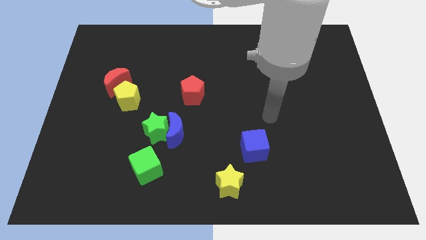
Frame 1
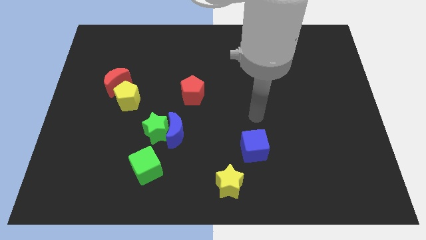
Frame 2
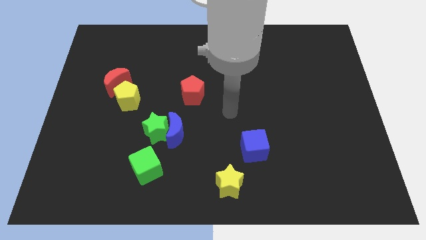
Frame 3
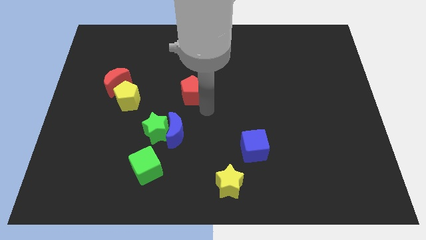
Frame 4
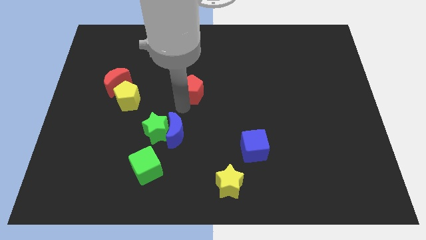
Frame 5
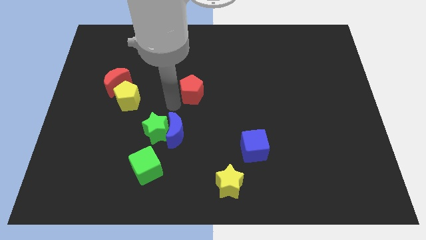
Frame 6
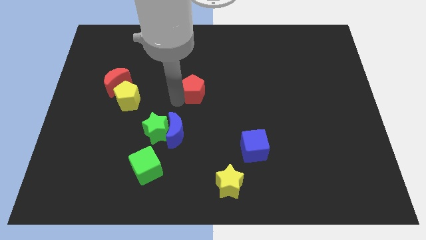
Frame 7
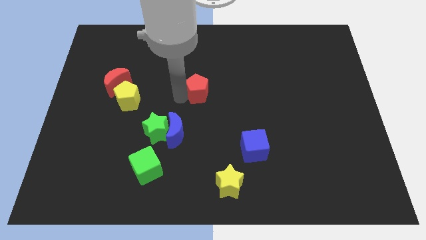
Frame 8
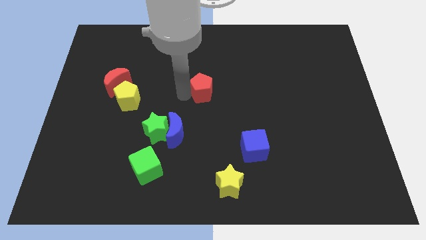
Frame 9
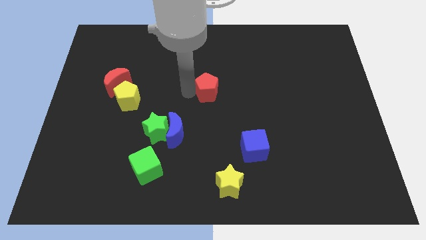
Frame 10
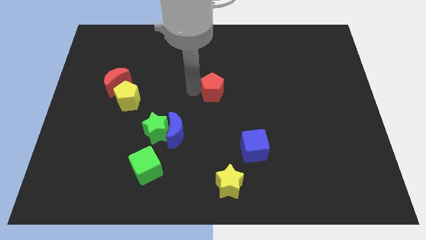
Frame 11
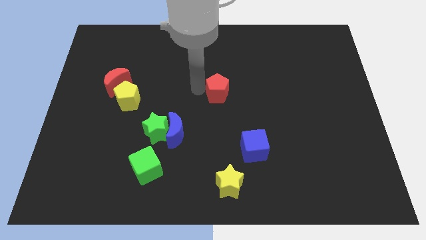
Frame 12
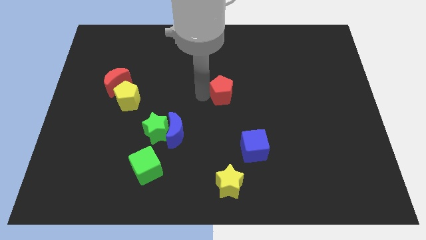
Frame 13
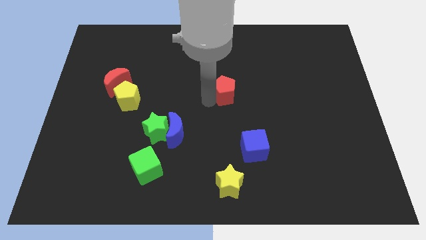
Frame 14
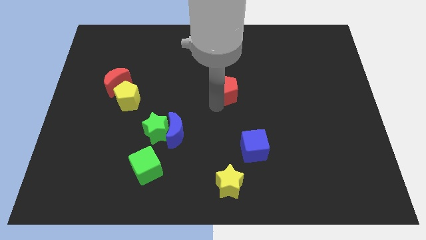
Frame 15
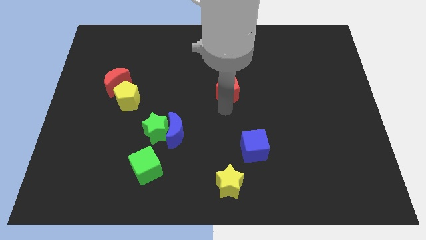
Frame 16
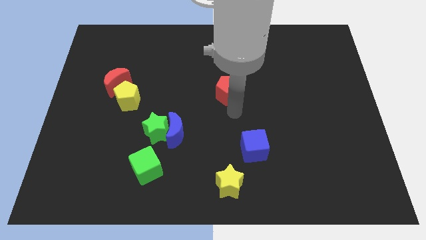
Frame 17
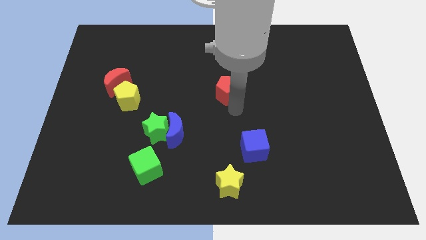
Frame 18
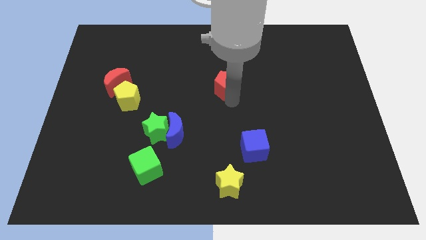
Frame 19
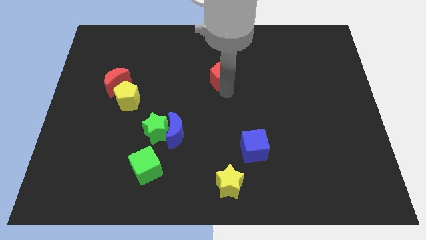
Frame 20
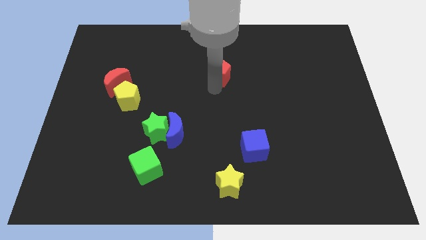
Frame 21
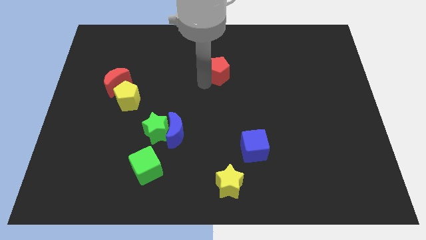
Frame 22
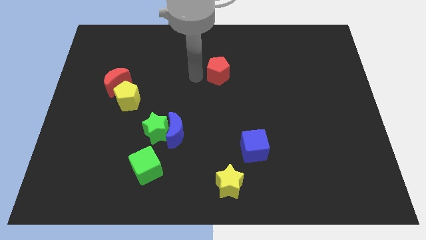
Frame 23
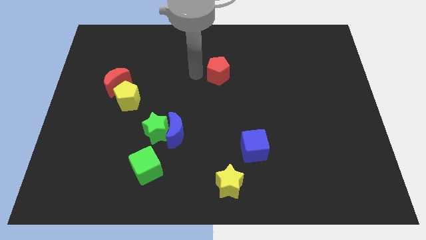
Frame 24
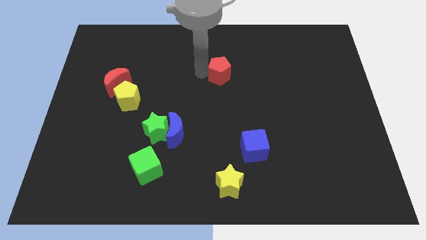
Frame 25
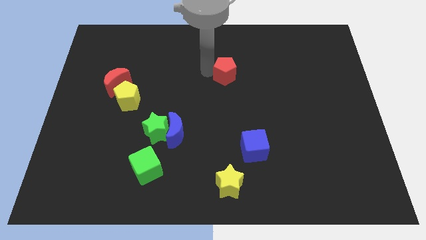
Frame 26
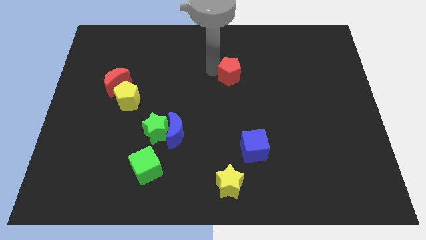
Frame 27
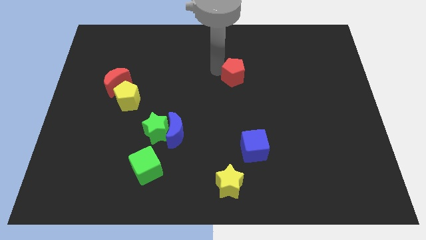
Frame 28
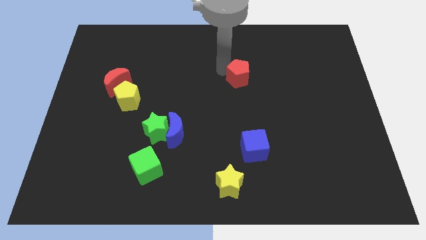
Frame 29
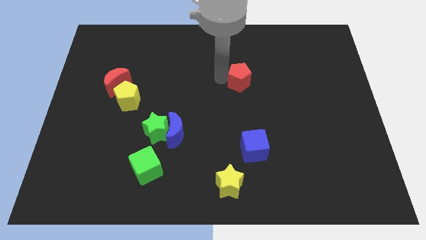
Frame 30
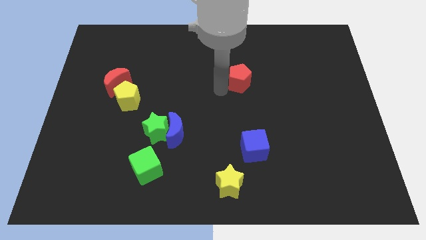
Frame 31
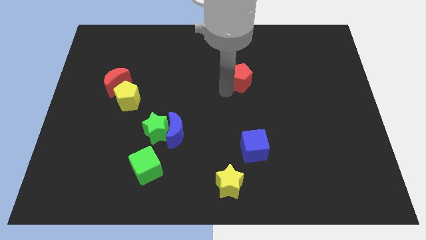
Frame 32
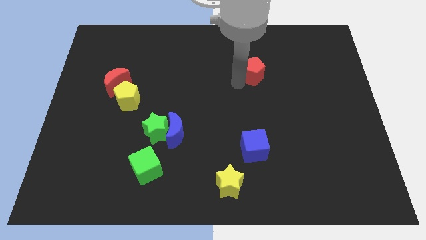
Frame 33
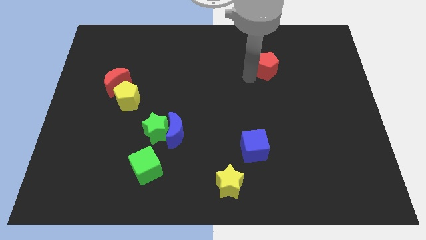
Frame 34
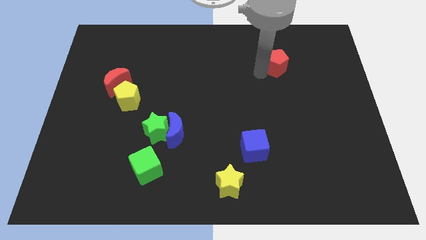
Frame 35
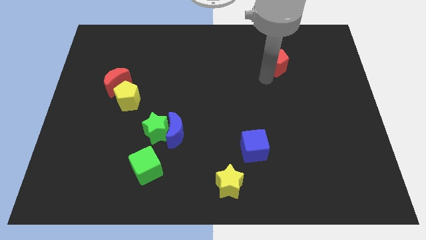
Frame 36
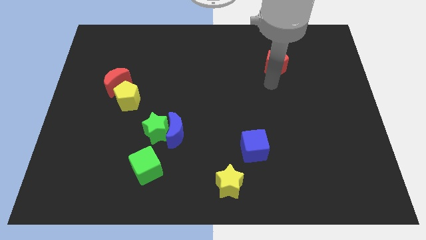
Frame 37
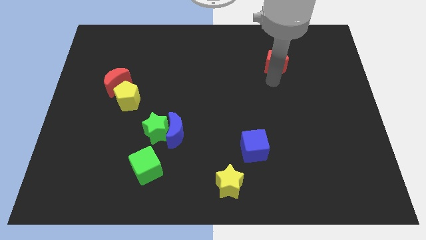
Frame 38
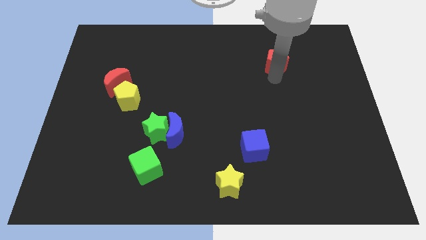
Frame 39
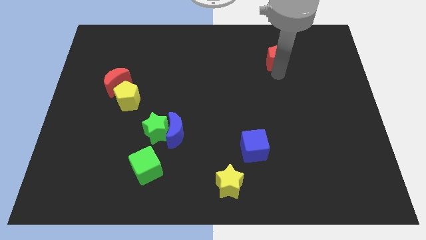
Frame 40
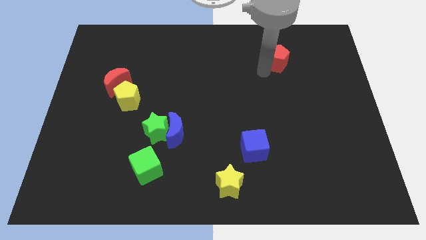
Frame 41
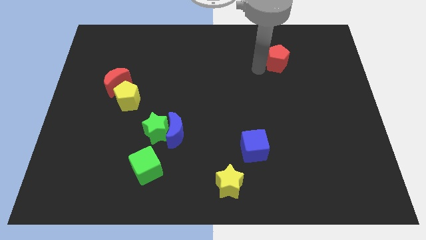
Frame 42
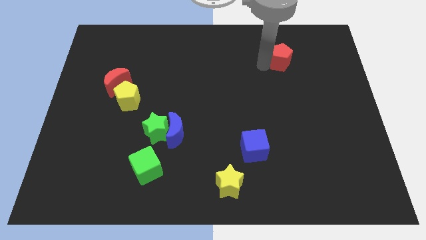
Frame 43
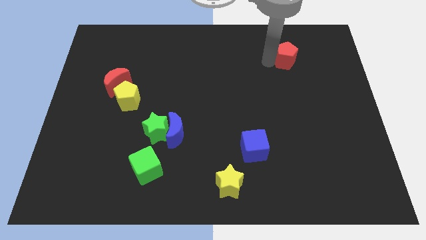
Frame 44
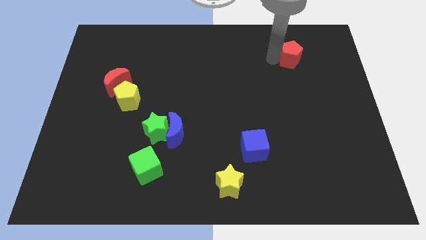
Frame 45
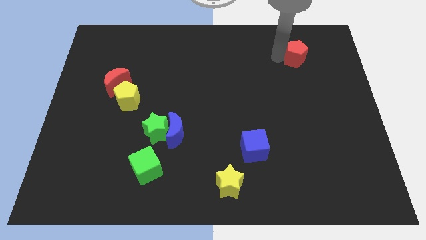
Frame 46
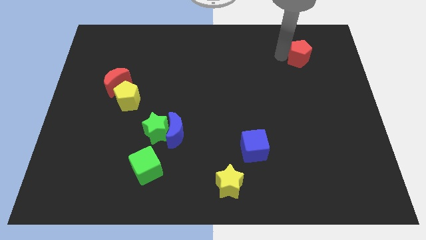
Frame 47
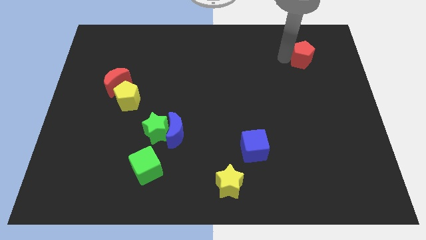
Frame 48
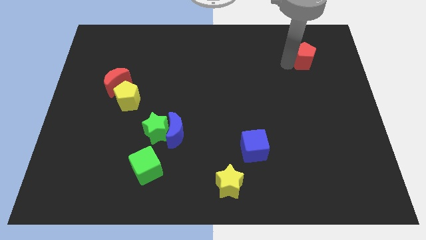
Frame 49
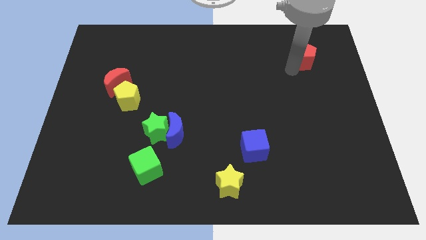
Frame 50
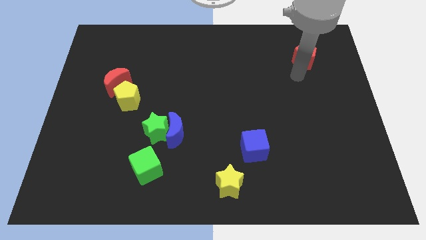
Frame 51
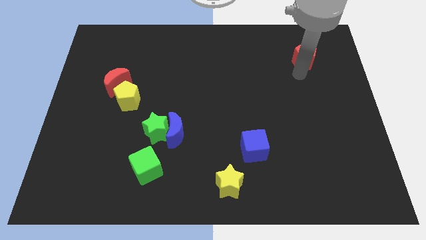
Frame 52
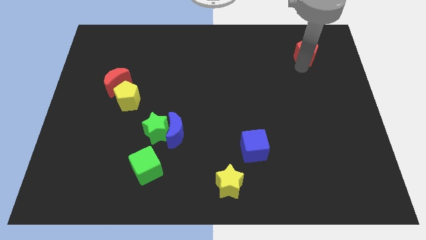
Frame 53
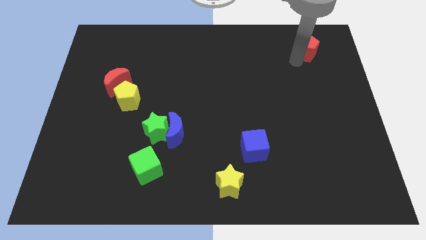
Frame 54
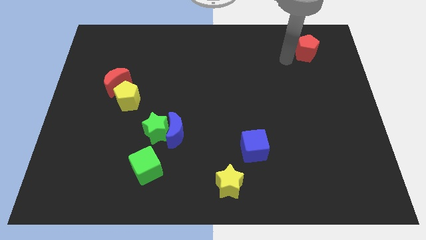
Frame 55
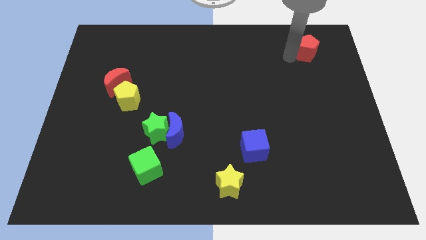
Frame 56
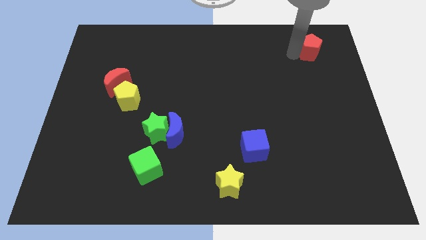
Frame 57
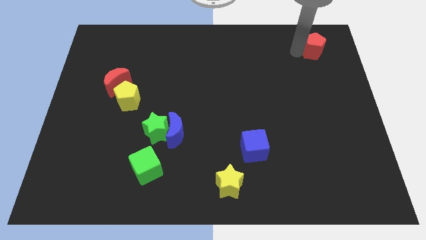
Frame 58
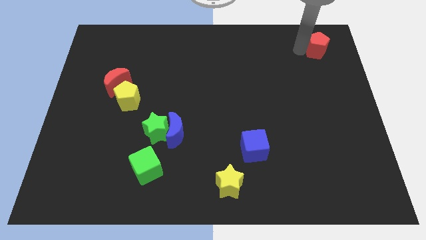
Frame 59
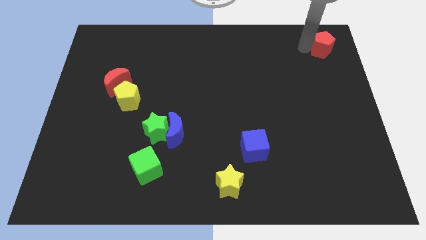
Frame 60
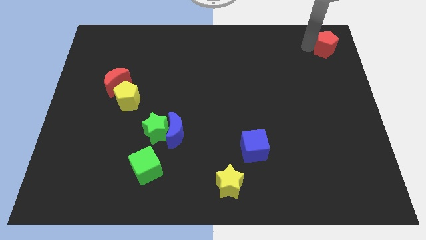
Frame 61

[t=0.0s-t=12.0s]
put the red pentagon to the top right corner
